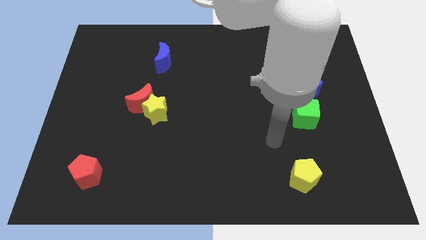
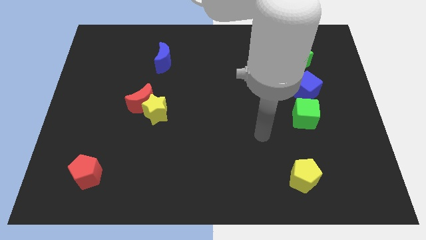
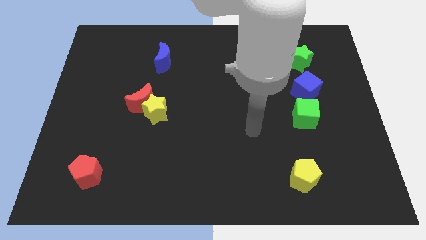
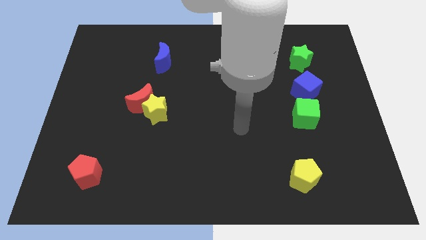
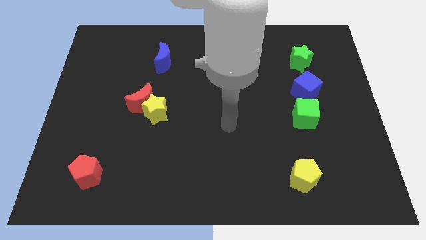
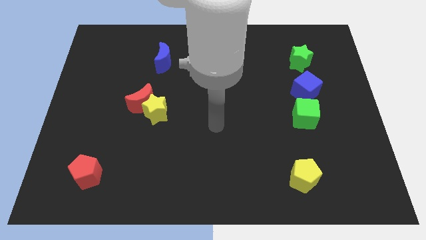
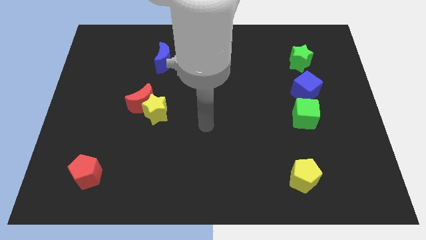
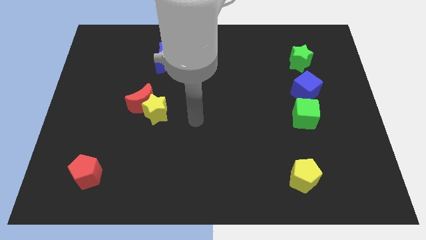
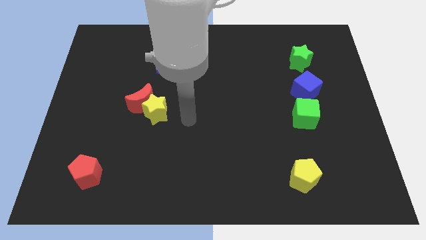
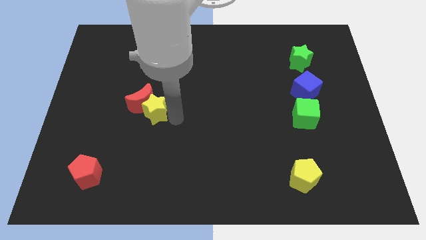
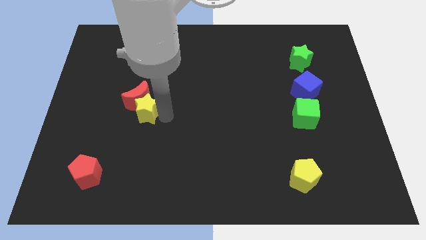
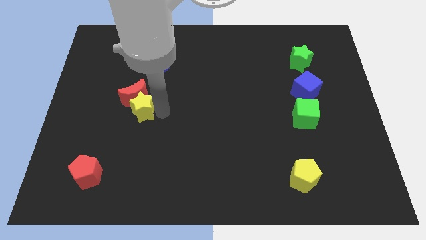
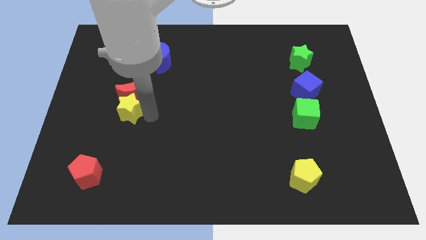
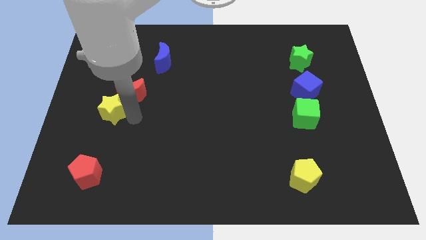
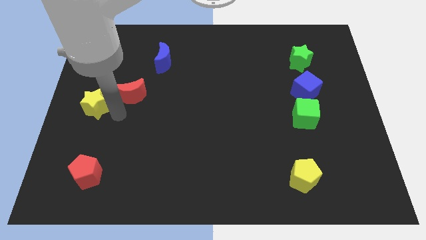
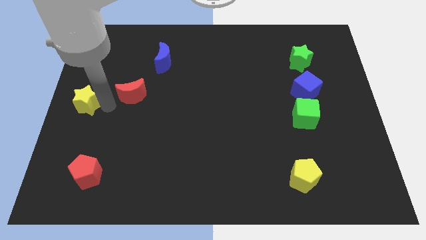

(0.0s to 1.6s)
pull the red moon apart from the yellow star

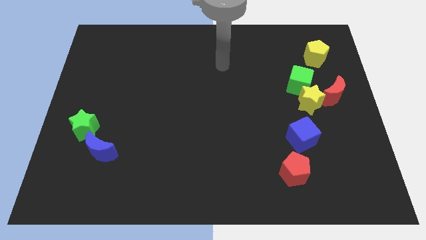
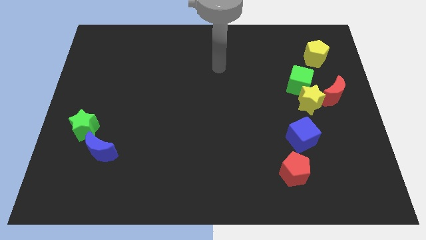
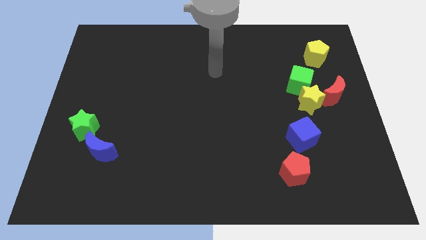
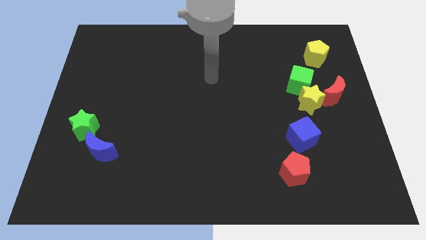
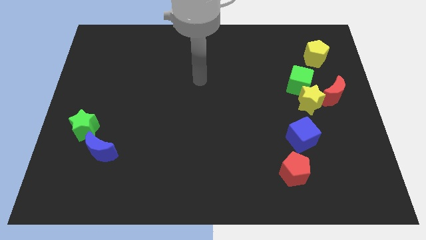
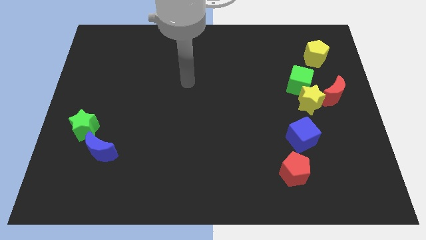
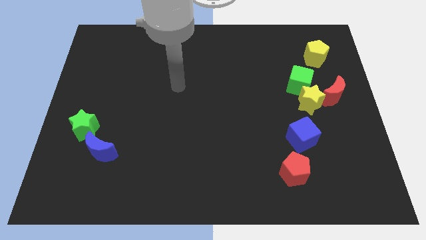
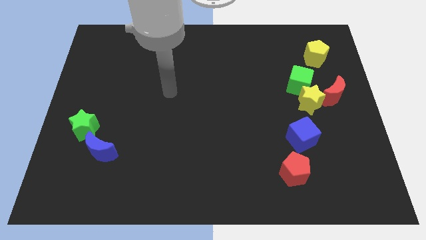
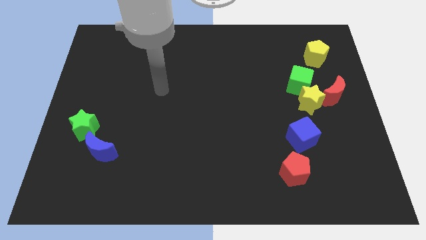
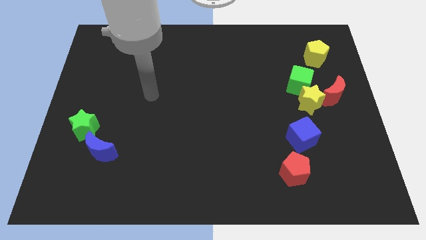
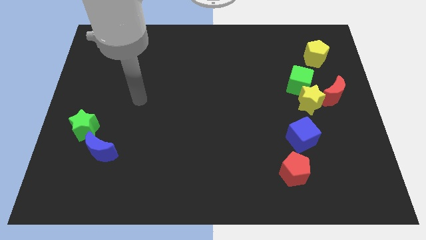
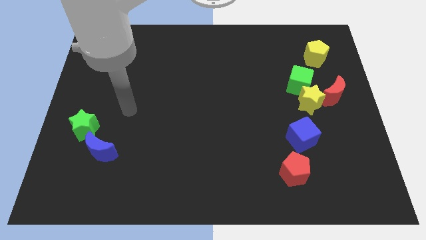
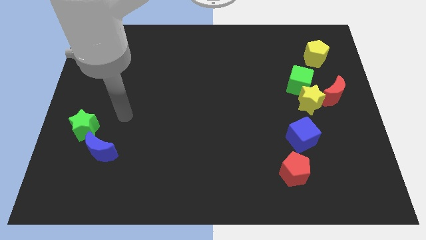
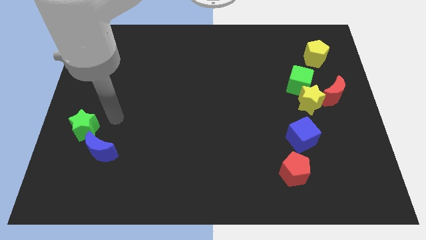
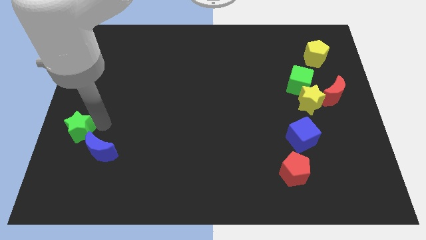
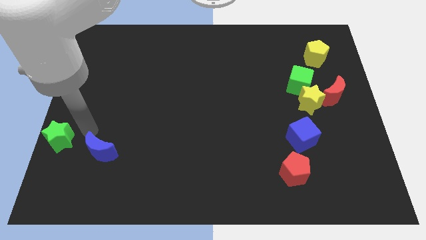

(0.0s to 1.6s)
move the blue moon away from the green star

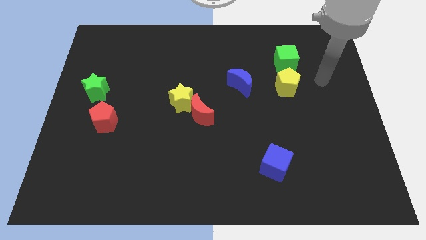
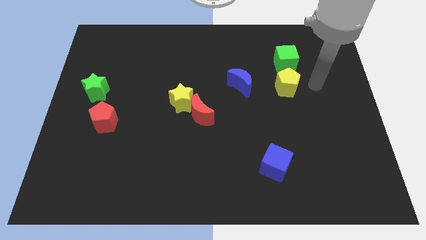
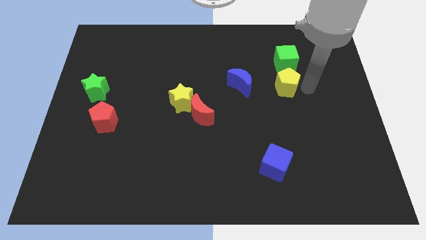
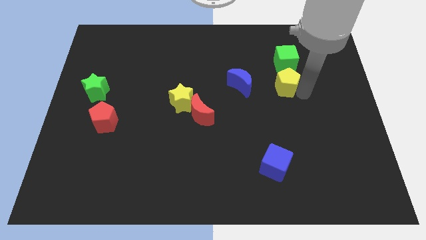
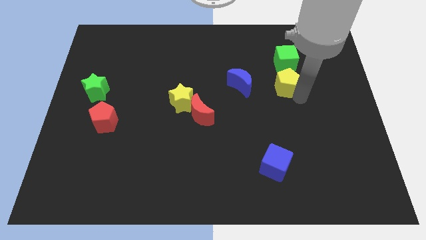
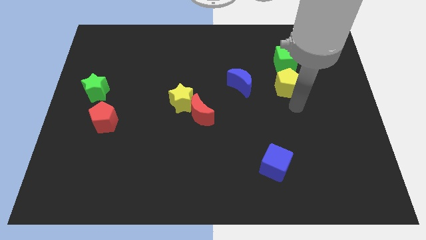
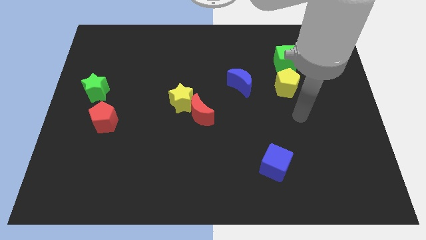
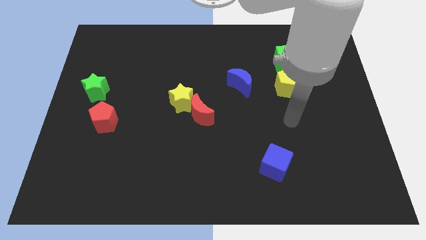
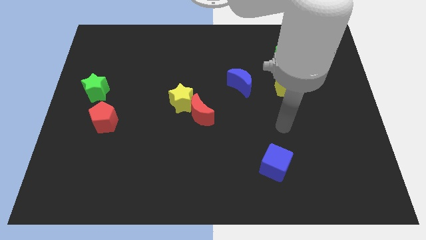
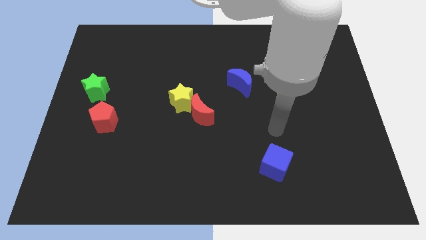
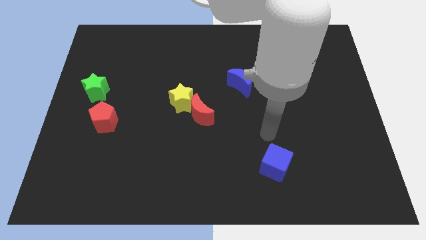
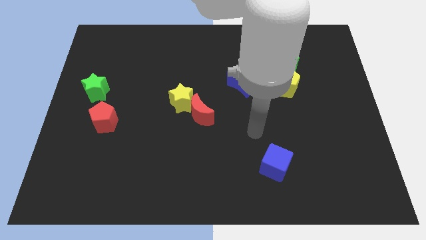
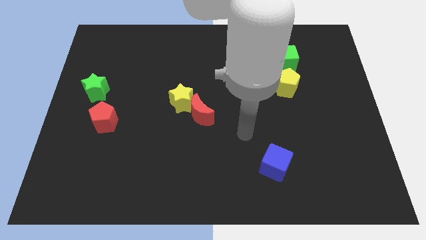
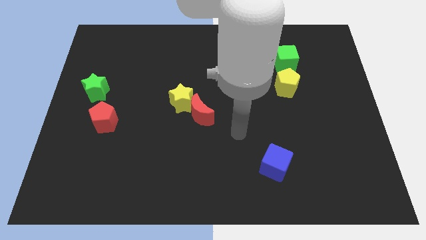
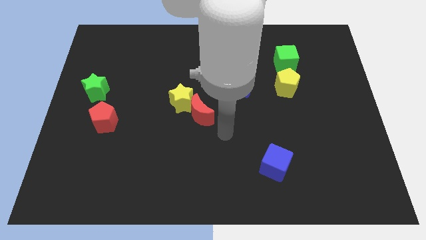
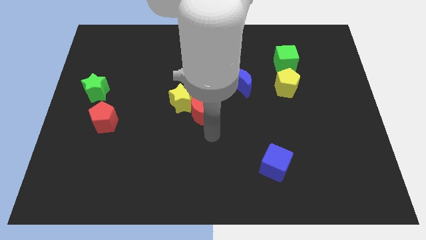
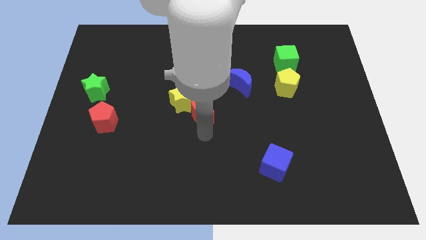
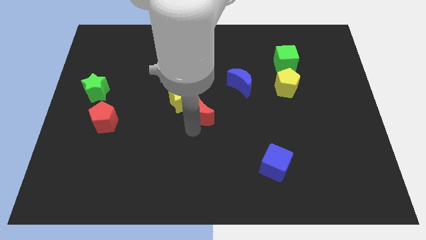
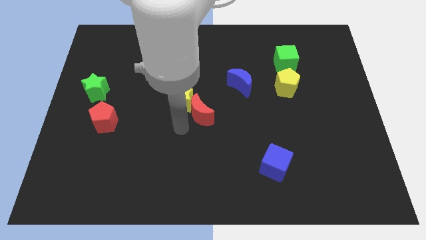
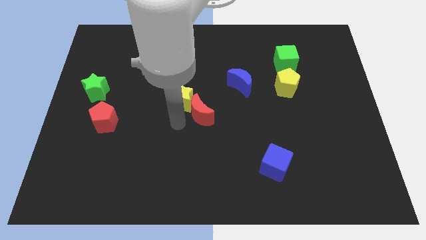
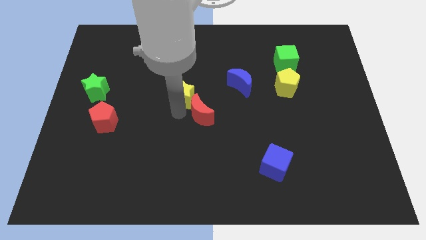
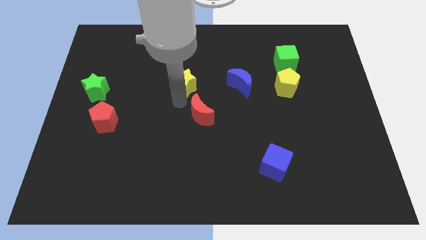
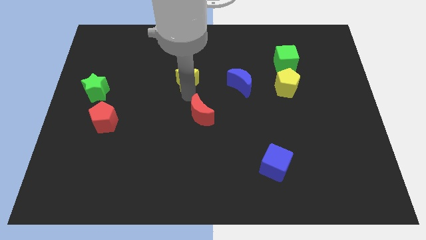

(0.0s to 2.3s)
move the red moon away from the yellow star

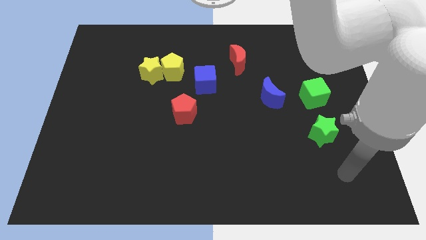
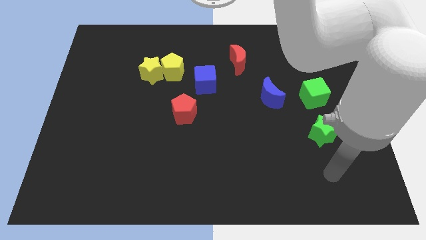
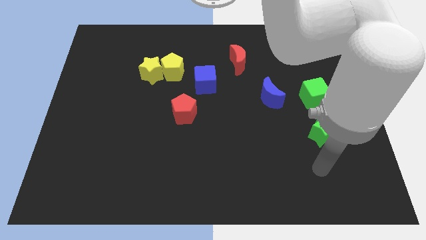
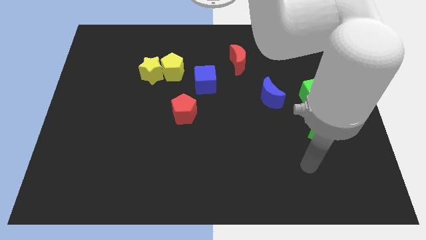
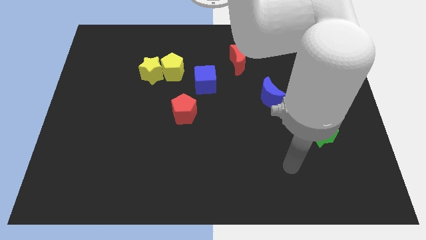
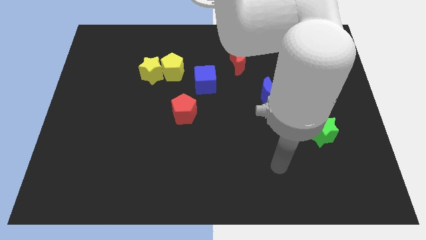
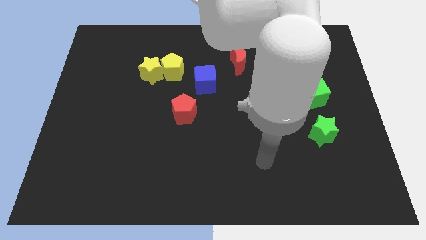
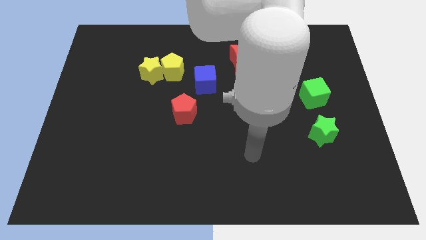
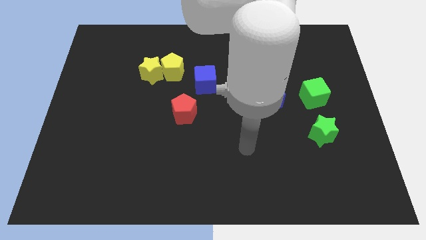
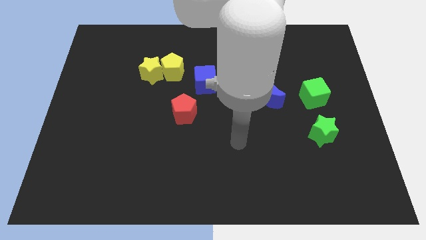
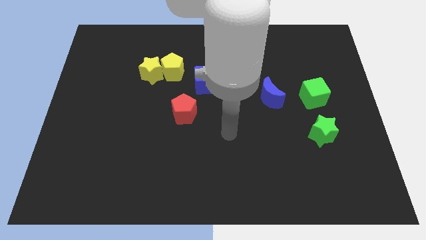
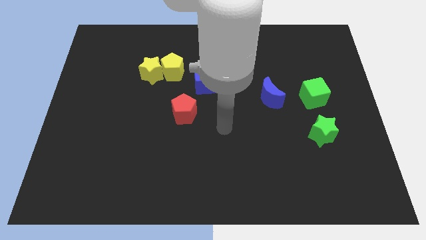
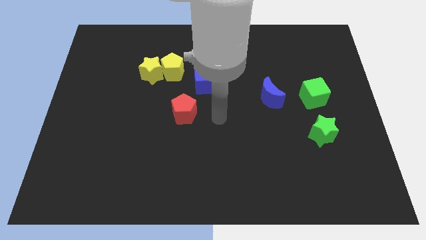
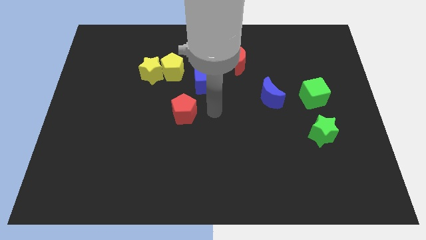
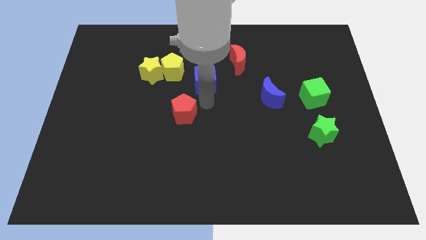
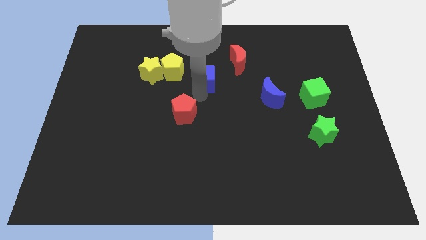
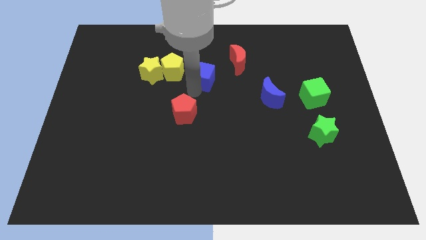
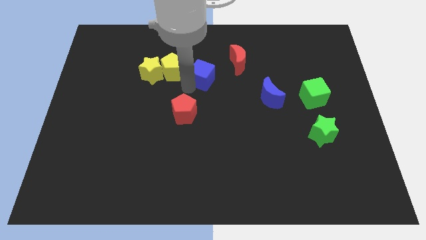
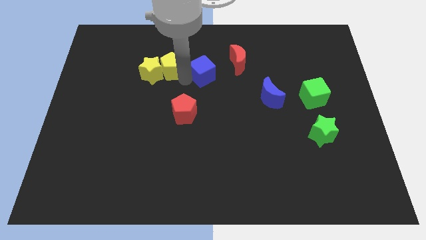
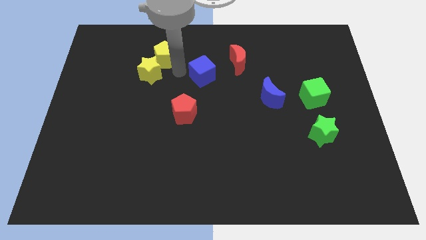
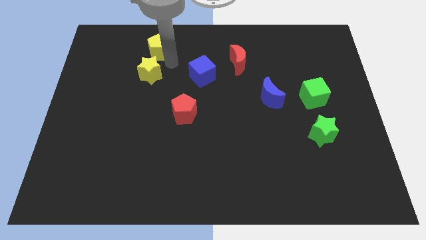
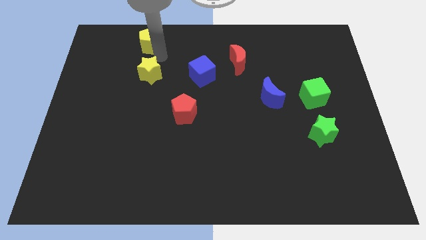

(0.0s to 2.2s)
pull the yellow star apart from the yellow pentagon

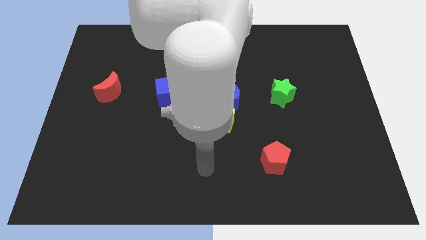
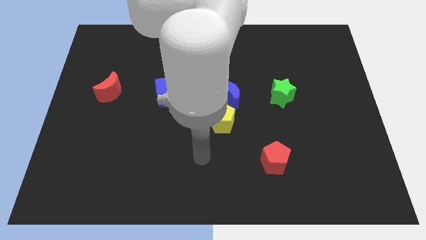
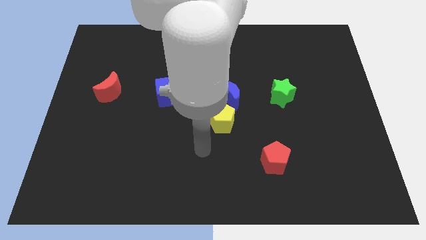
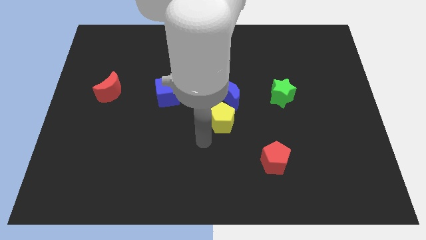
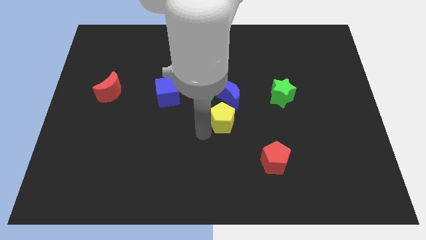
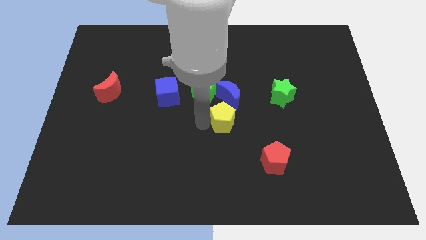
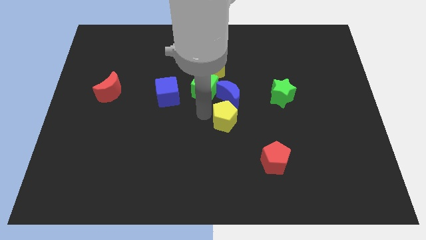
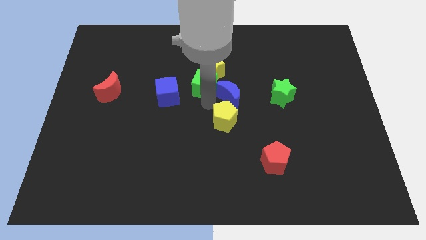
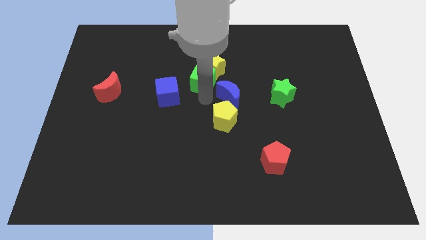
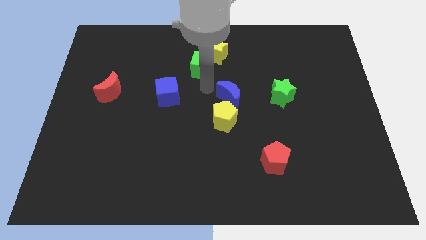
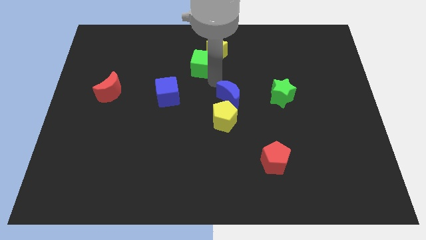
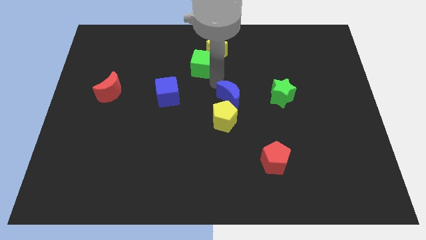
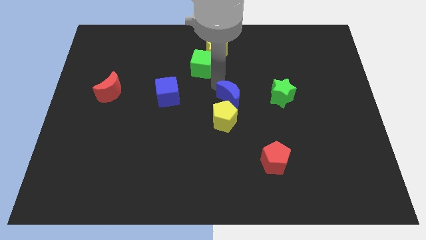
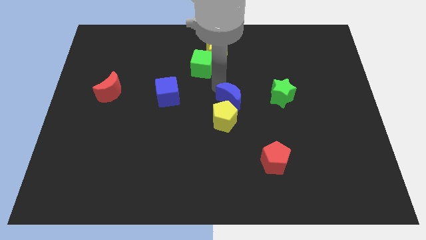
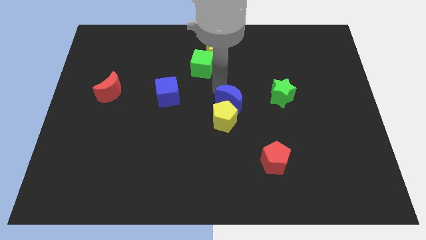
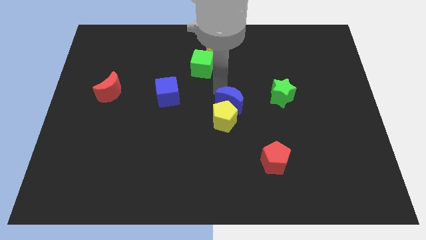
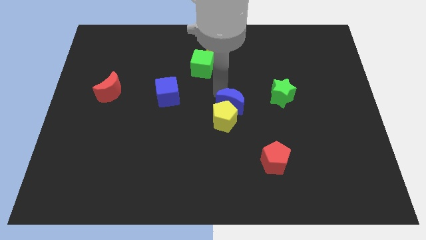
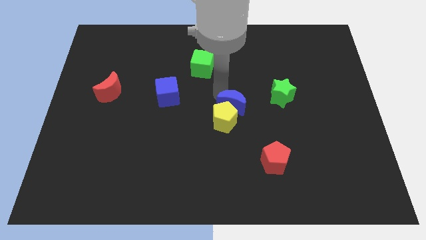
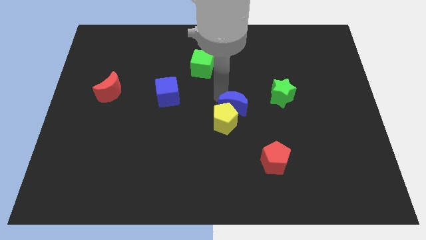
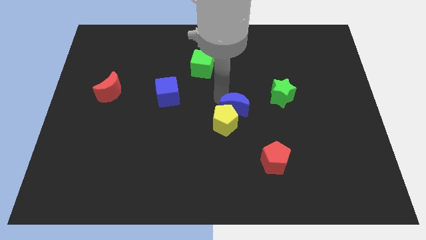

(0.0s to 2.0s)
separate the blue moon from the group of blocks
